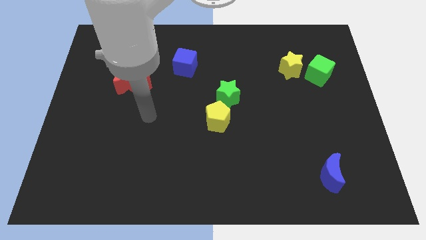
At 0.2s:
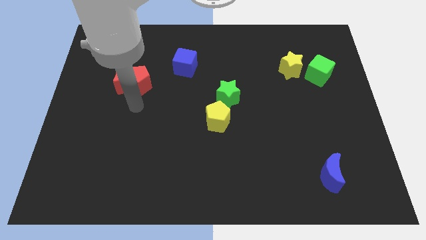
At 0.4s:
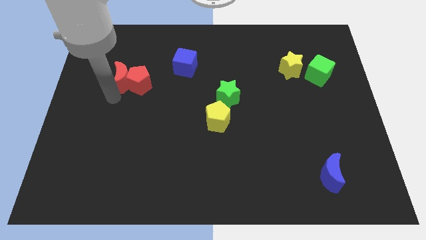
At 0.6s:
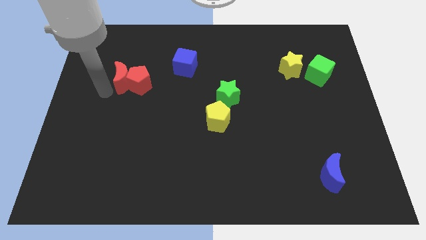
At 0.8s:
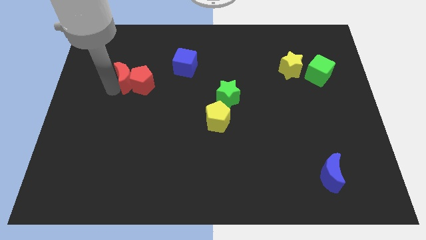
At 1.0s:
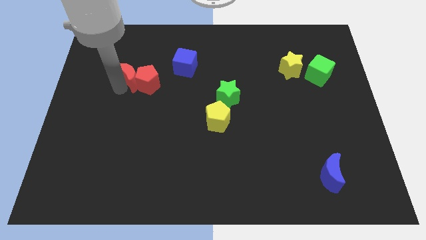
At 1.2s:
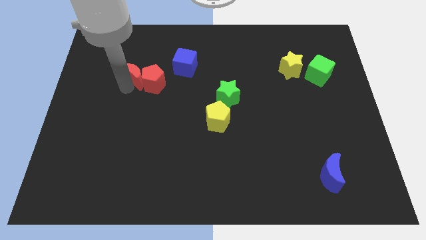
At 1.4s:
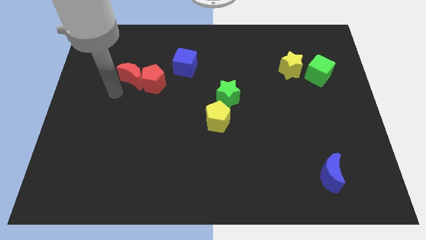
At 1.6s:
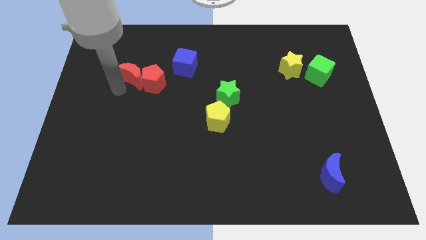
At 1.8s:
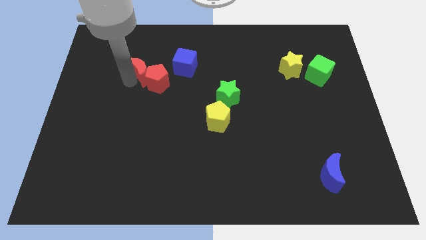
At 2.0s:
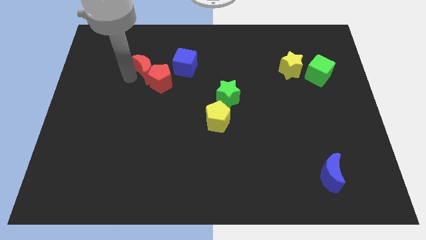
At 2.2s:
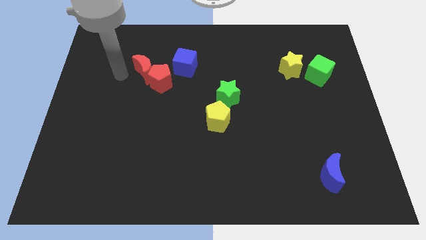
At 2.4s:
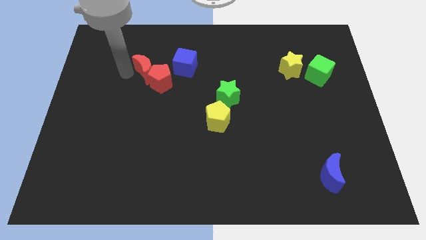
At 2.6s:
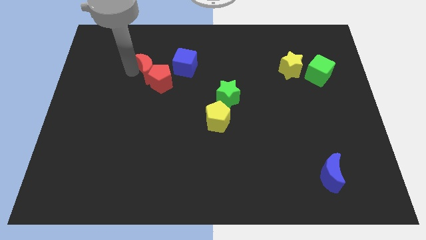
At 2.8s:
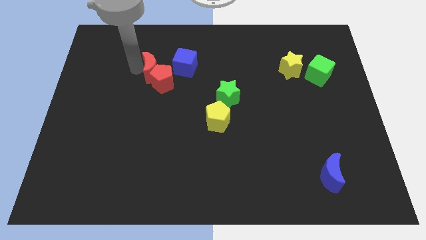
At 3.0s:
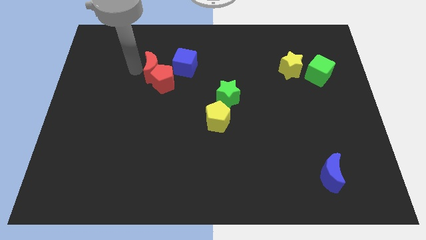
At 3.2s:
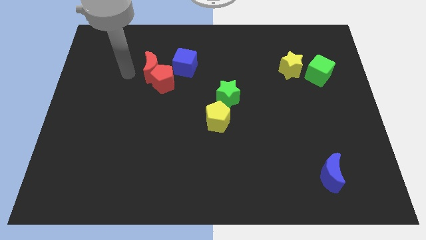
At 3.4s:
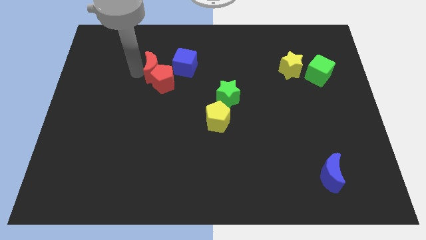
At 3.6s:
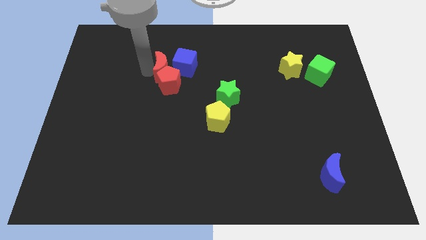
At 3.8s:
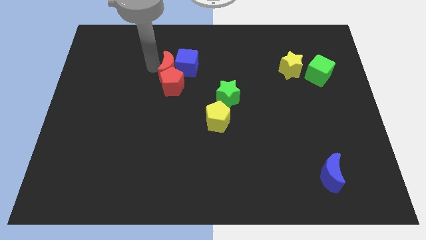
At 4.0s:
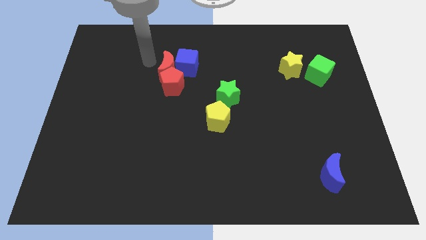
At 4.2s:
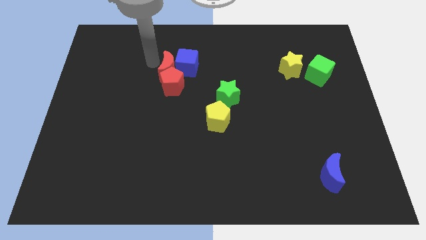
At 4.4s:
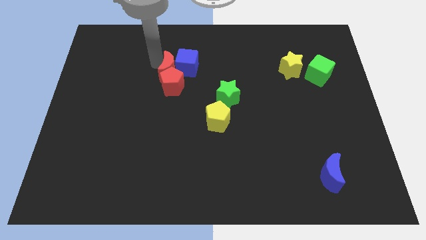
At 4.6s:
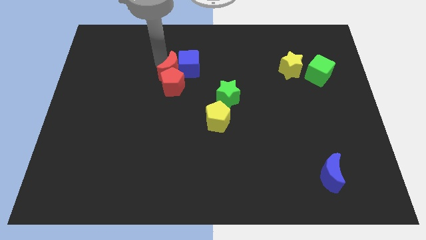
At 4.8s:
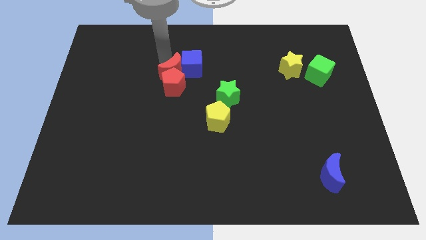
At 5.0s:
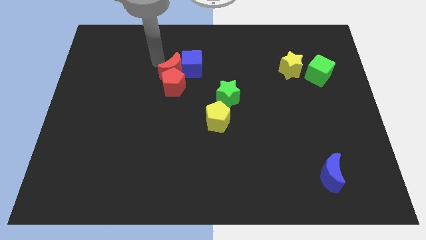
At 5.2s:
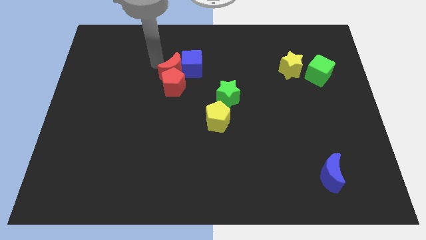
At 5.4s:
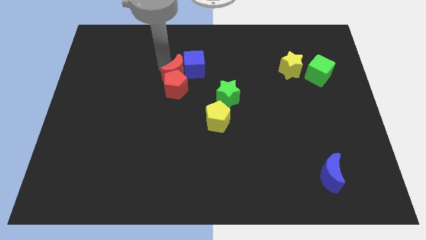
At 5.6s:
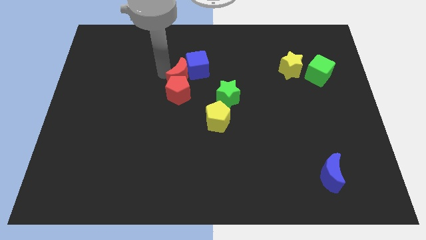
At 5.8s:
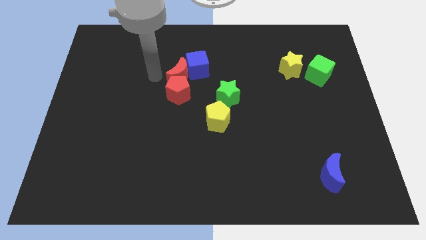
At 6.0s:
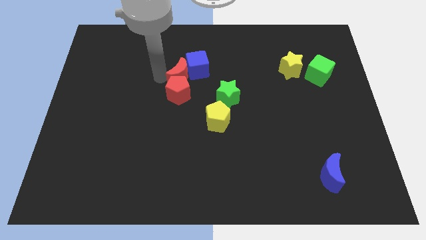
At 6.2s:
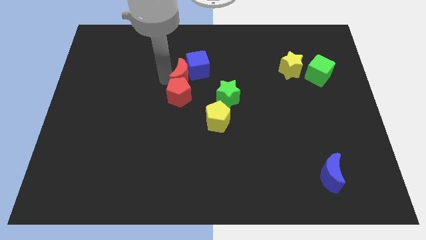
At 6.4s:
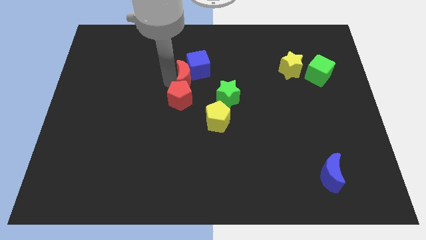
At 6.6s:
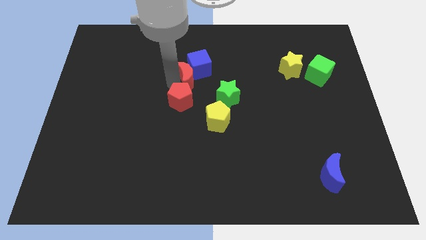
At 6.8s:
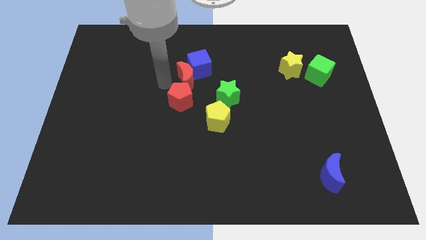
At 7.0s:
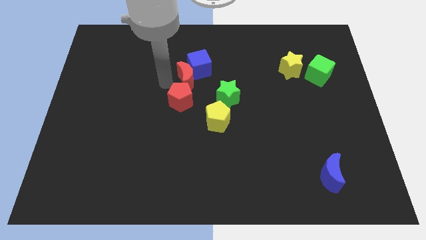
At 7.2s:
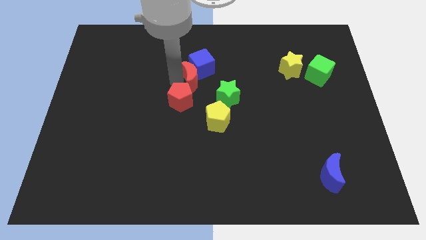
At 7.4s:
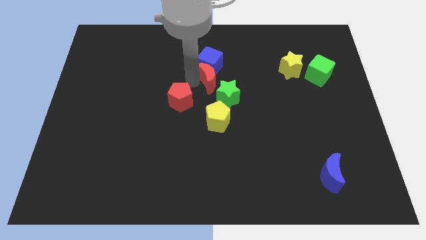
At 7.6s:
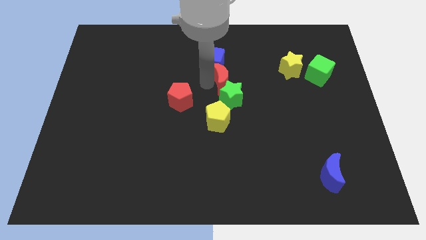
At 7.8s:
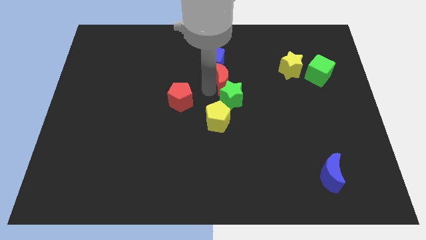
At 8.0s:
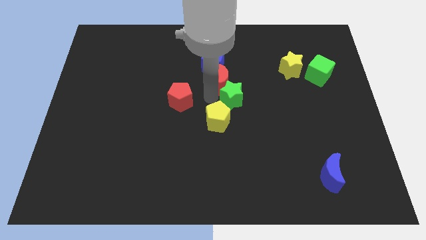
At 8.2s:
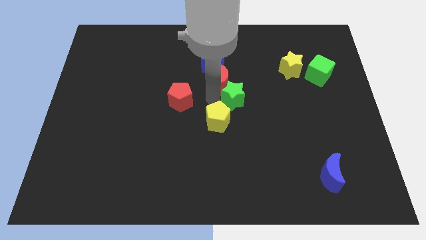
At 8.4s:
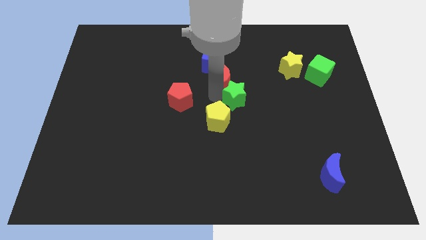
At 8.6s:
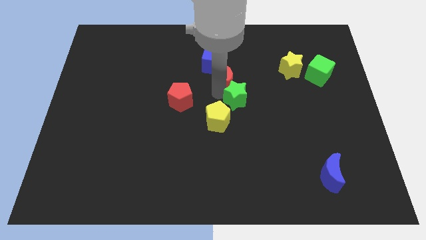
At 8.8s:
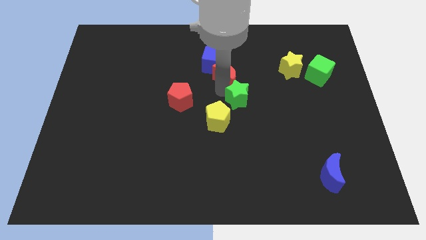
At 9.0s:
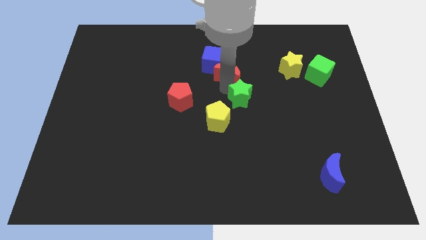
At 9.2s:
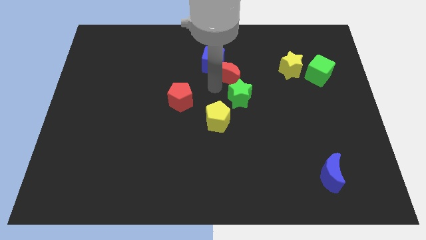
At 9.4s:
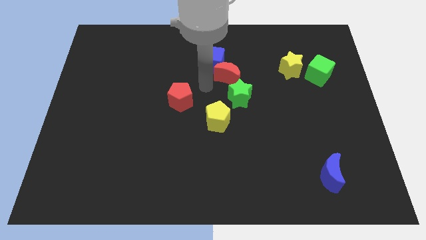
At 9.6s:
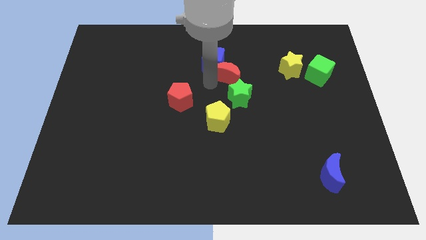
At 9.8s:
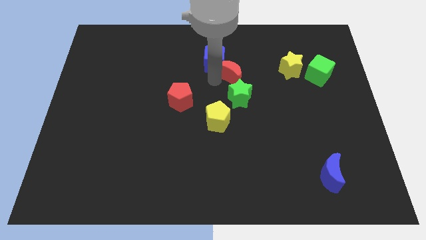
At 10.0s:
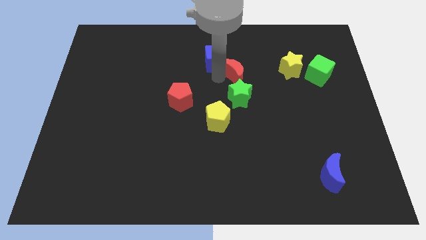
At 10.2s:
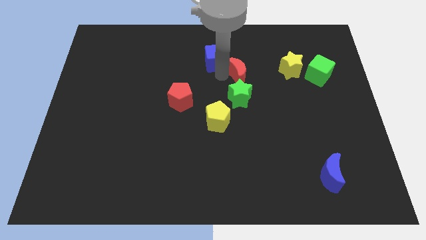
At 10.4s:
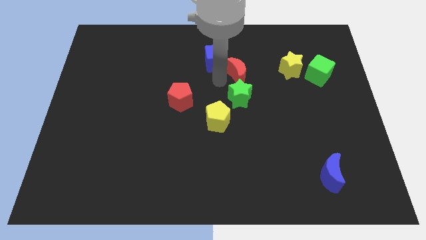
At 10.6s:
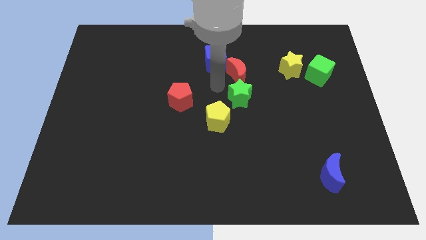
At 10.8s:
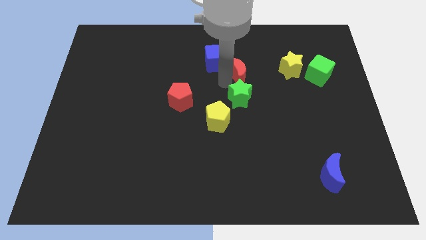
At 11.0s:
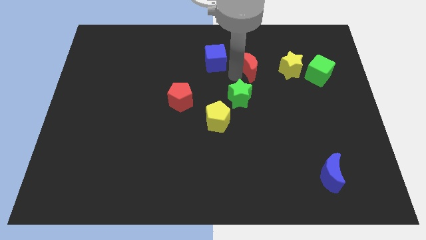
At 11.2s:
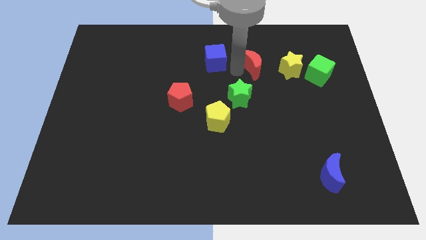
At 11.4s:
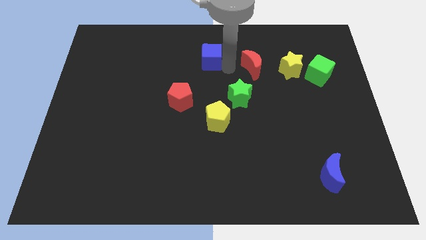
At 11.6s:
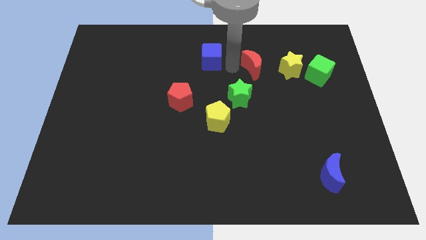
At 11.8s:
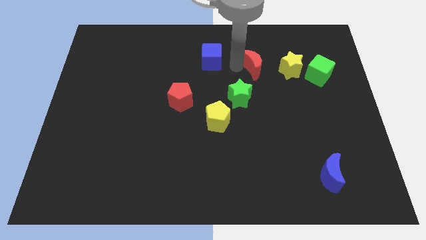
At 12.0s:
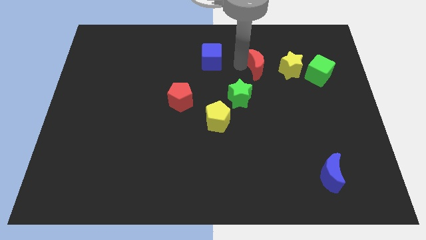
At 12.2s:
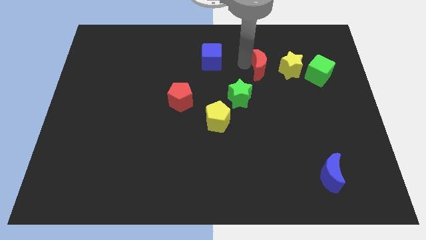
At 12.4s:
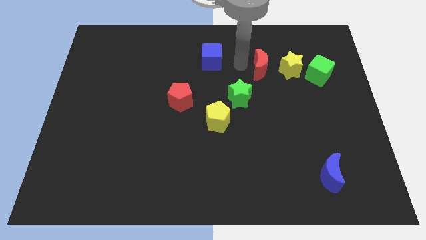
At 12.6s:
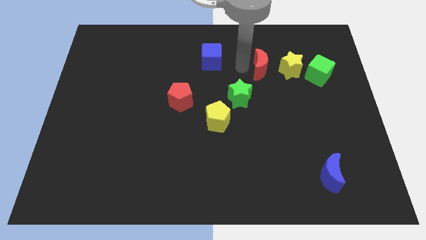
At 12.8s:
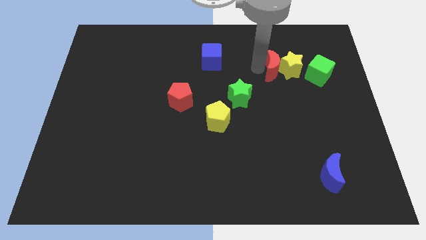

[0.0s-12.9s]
slide the red moon close to the yellow star

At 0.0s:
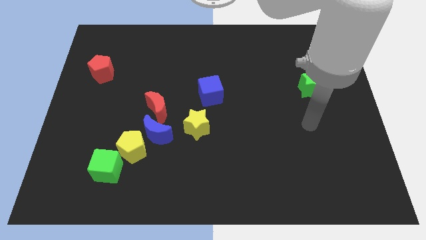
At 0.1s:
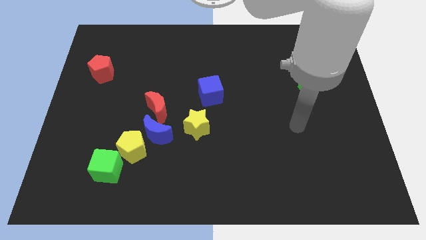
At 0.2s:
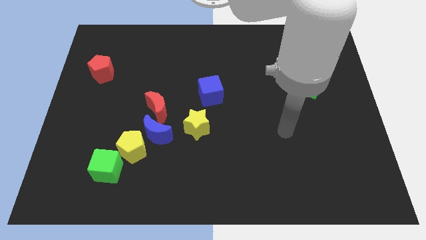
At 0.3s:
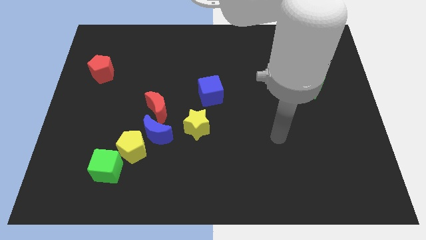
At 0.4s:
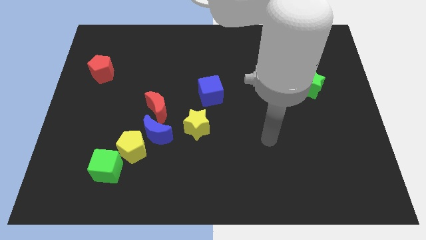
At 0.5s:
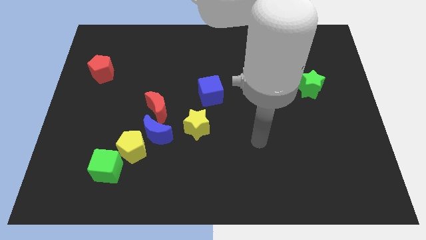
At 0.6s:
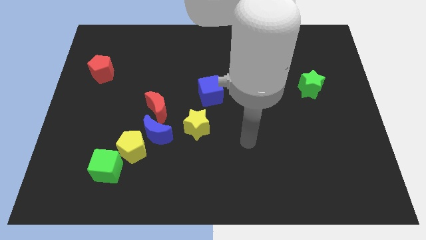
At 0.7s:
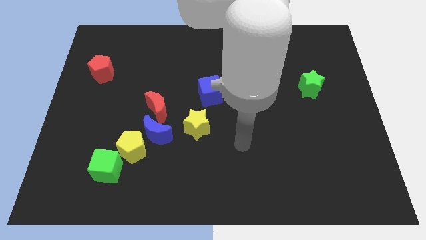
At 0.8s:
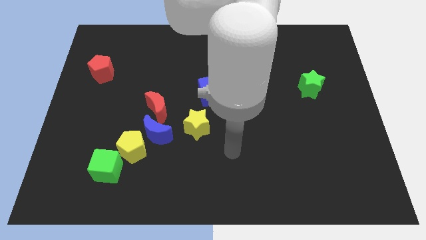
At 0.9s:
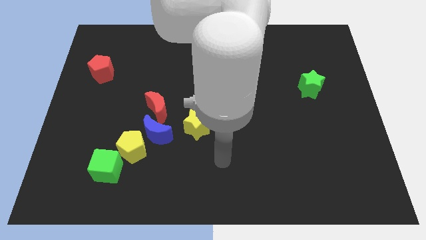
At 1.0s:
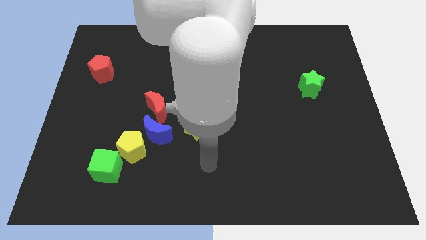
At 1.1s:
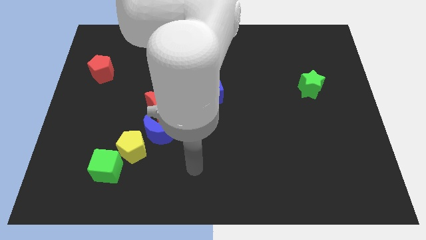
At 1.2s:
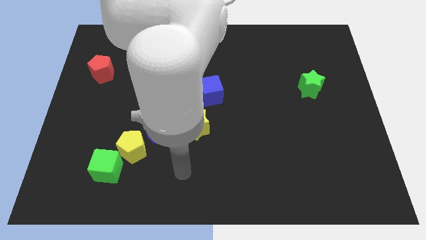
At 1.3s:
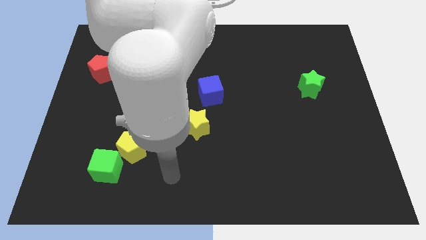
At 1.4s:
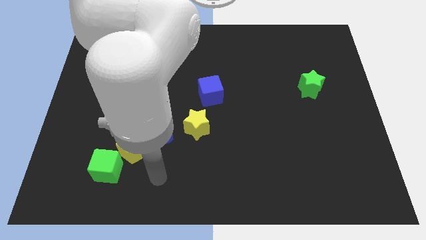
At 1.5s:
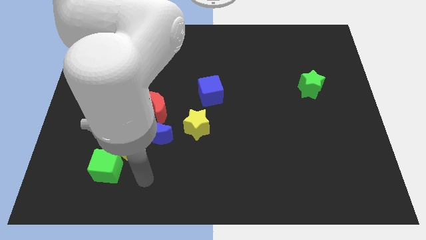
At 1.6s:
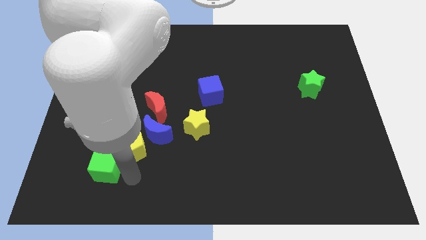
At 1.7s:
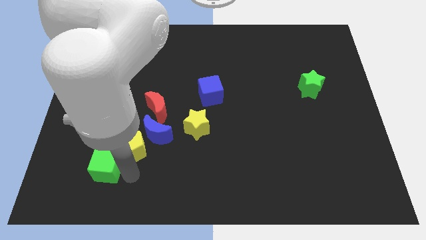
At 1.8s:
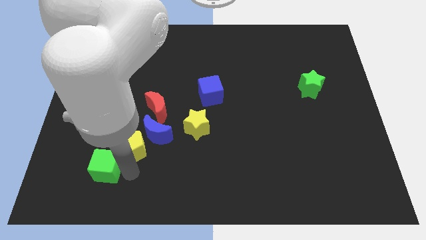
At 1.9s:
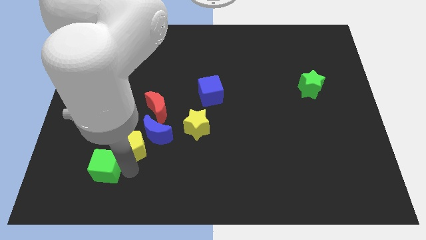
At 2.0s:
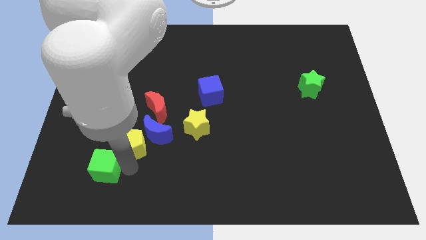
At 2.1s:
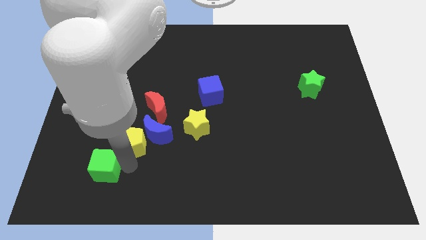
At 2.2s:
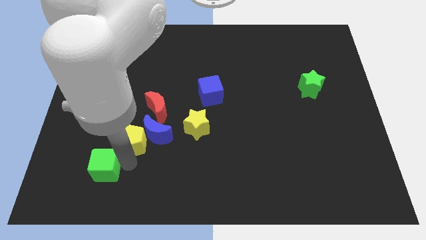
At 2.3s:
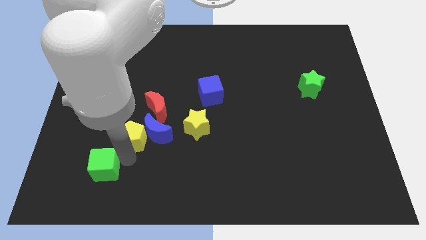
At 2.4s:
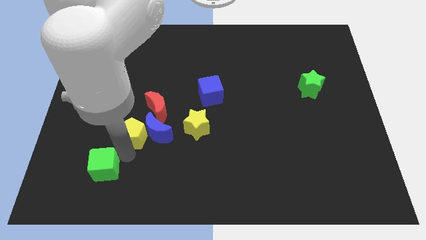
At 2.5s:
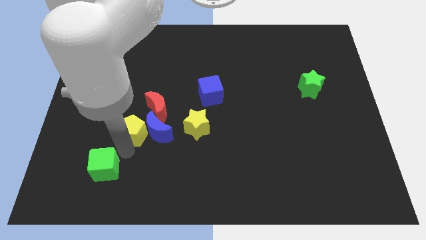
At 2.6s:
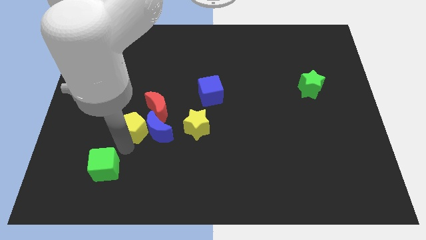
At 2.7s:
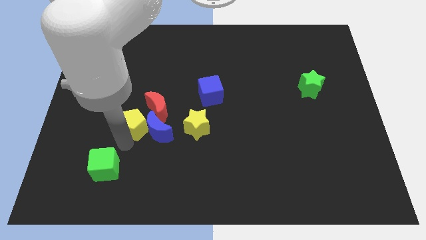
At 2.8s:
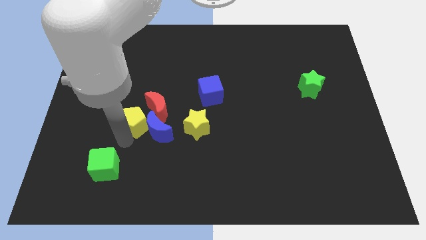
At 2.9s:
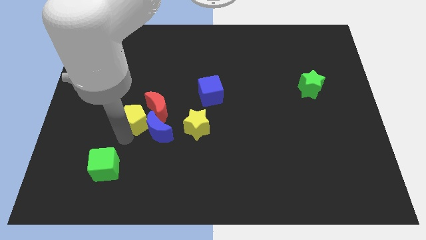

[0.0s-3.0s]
slide the yellow pentagon to the red moon
